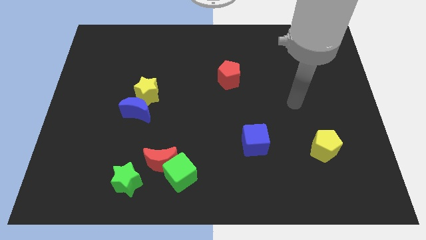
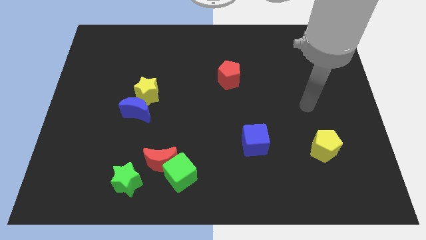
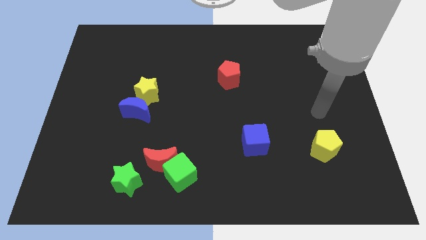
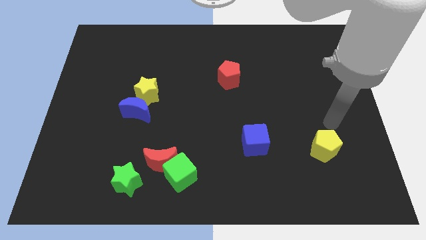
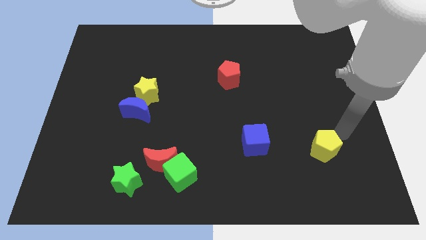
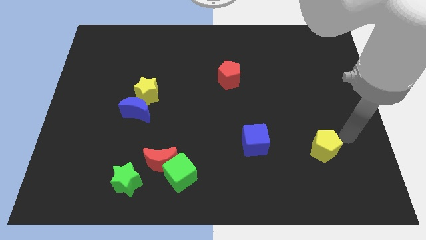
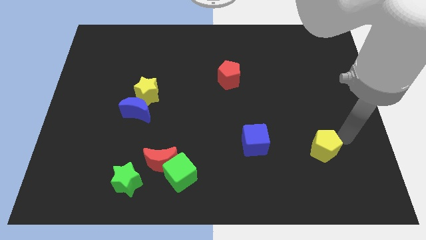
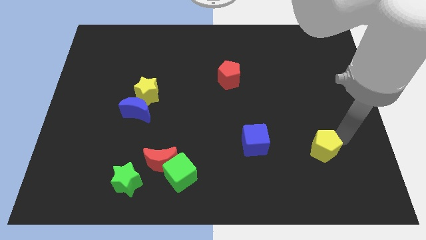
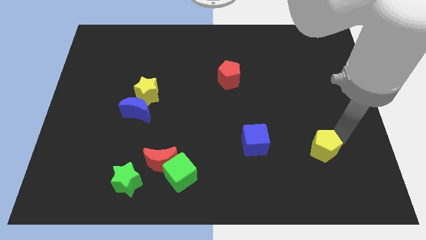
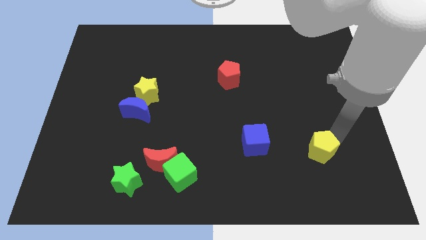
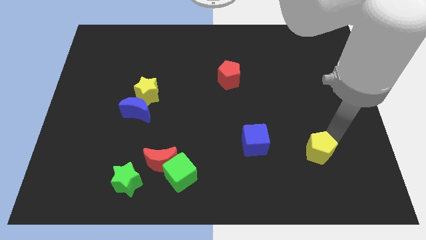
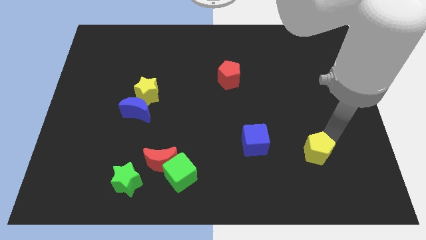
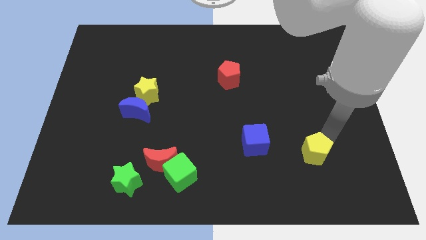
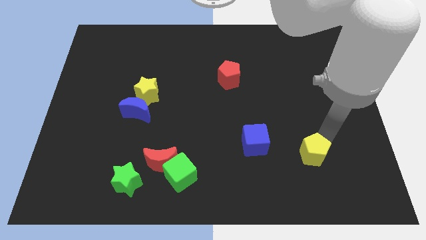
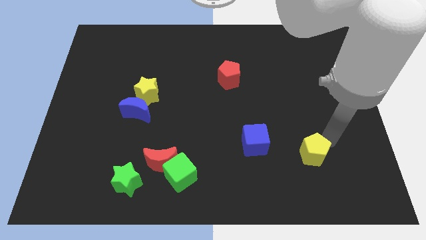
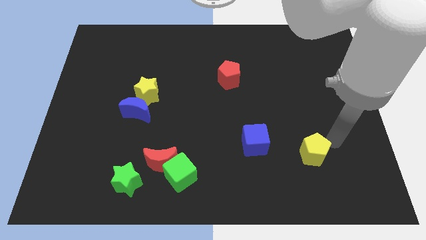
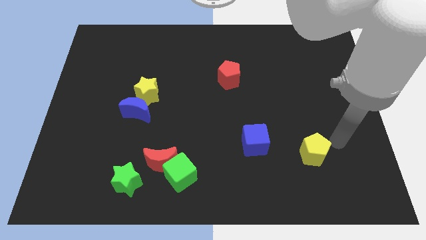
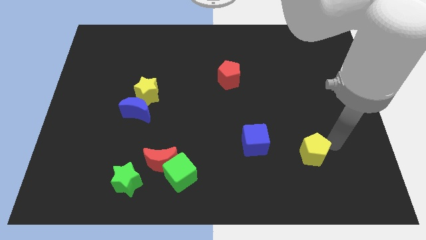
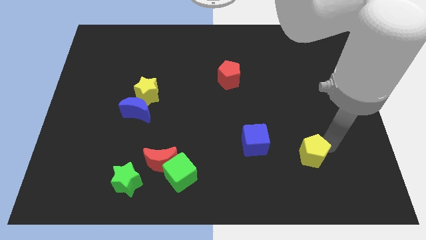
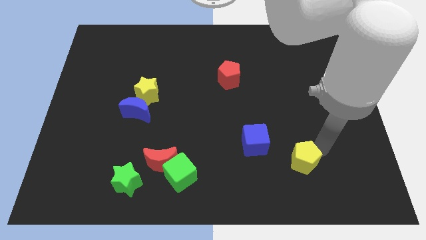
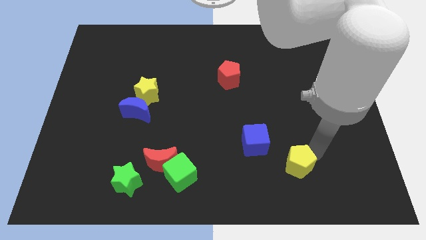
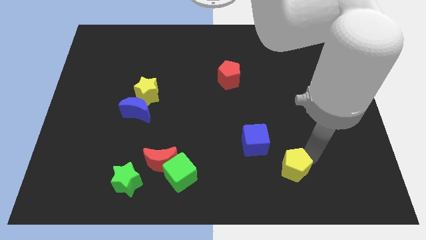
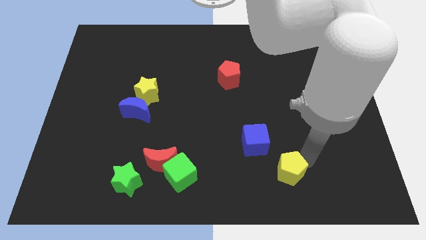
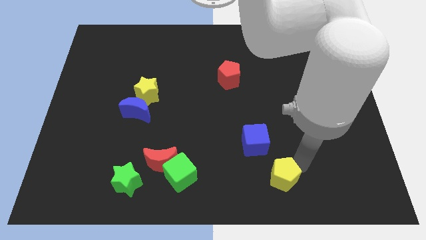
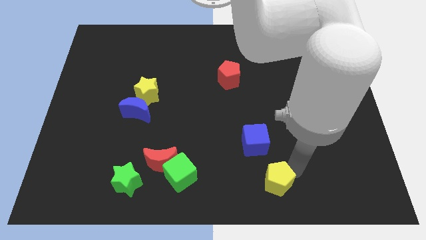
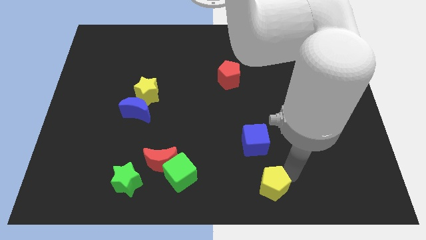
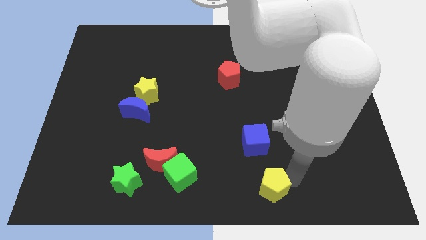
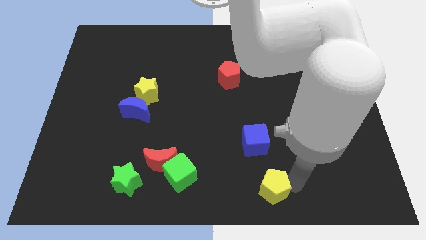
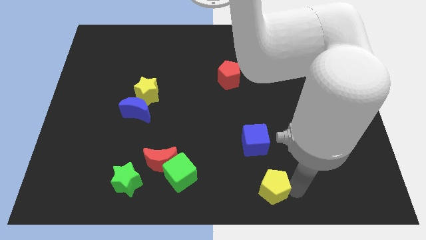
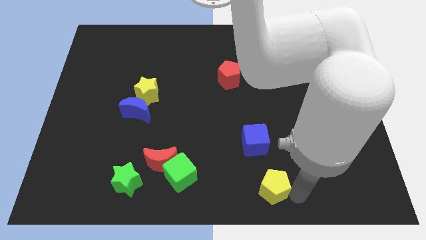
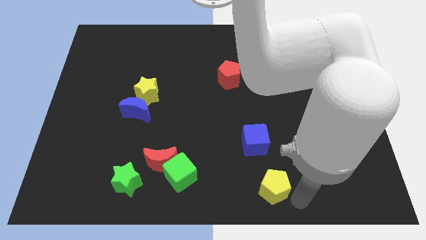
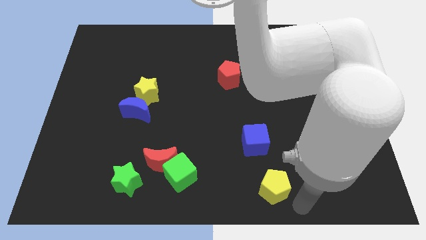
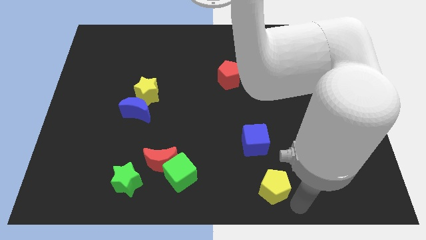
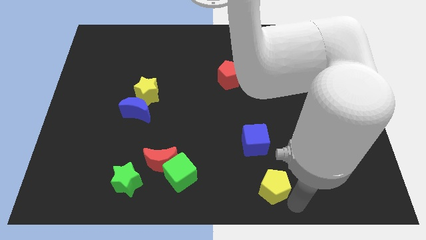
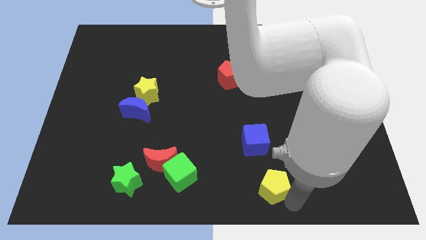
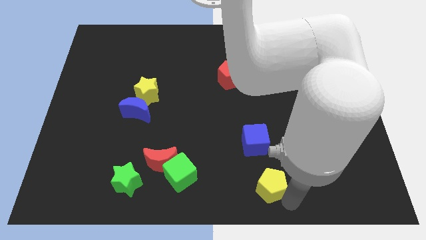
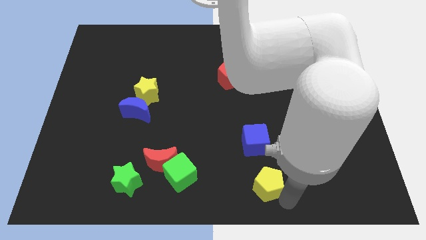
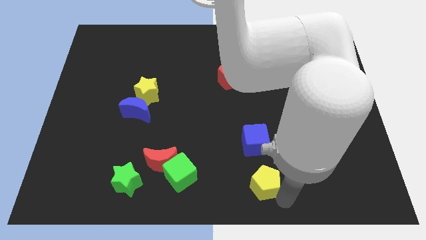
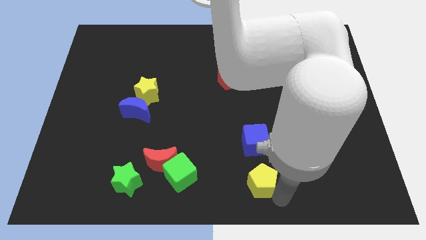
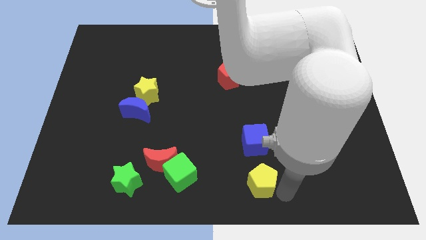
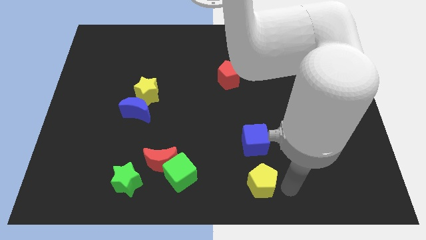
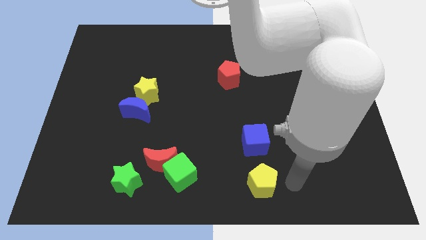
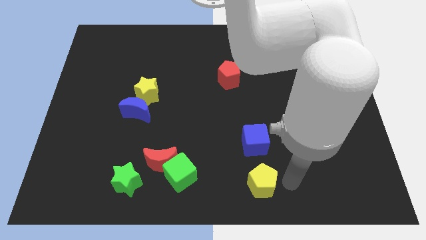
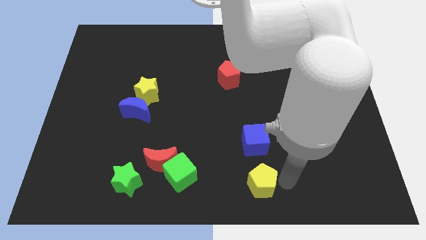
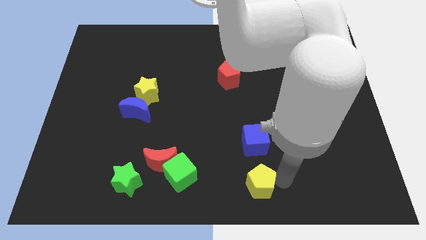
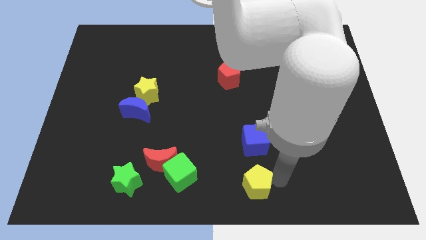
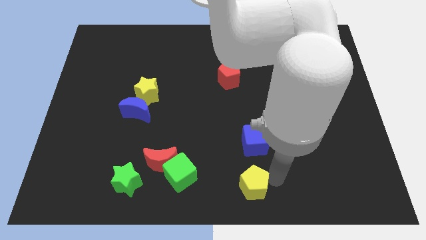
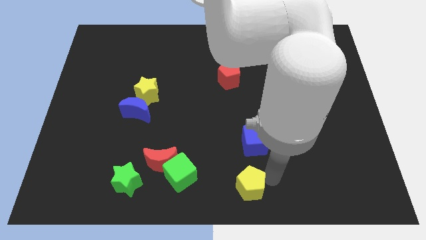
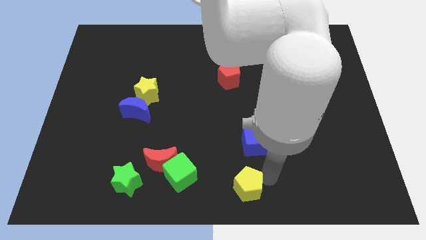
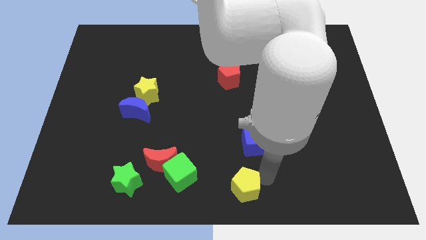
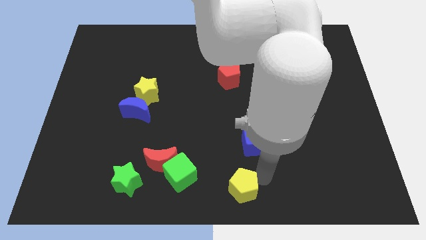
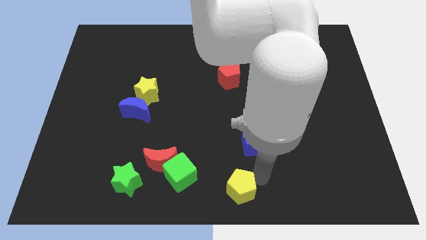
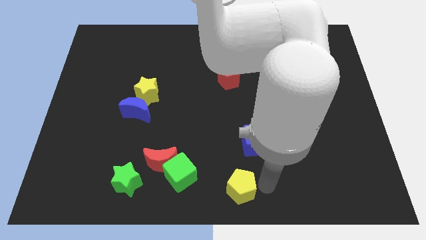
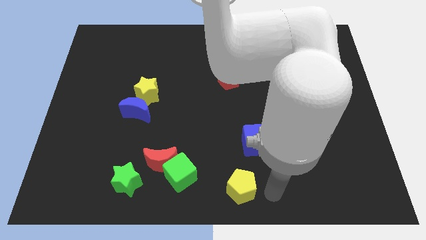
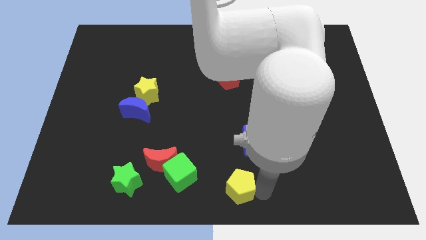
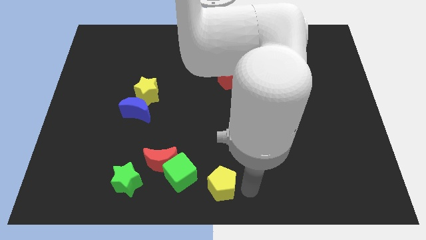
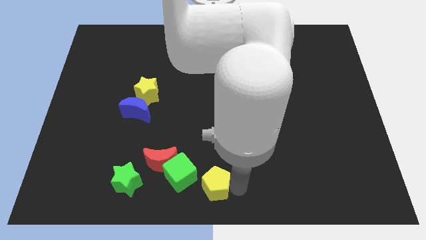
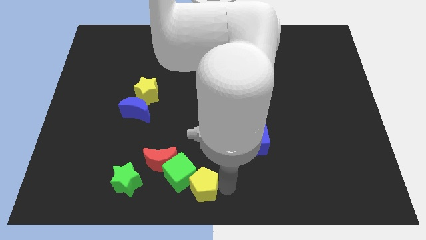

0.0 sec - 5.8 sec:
push the yellow pentagon close to the green cube

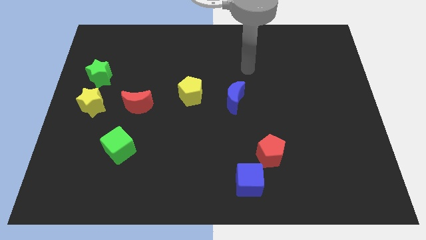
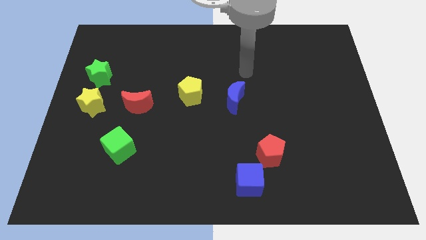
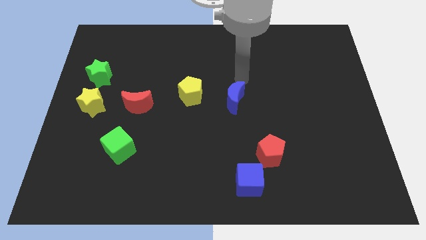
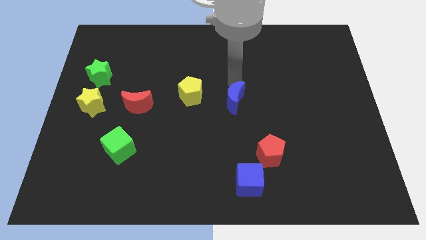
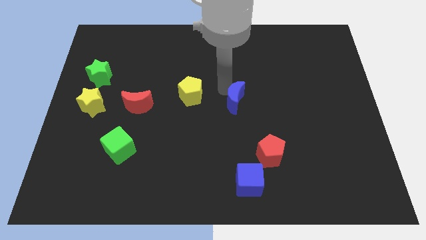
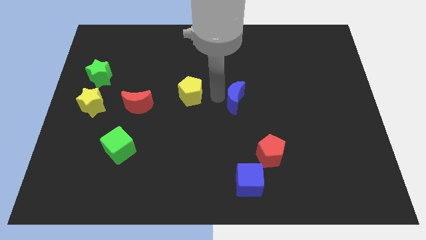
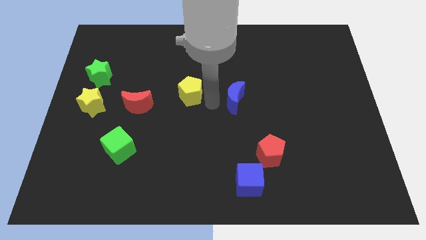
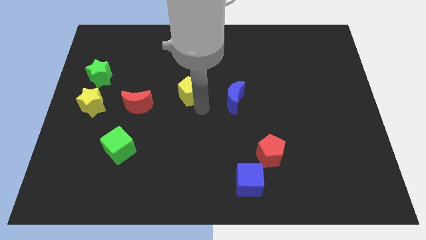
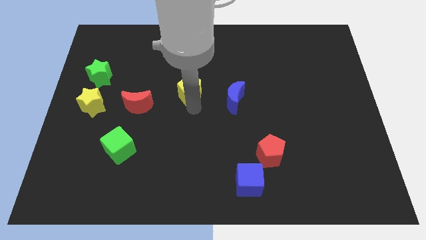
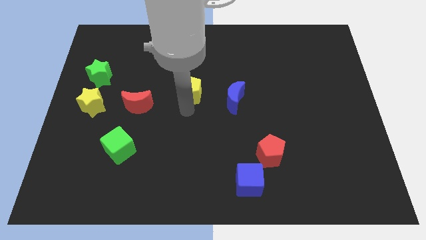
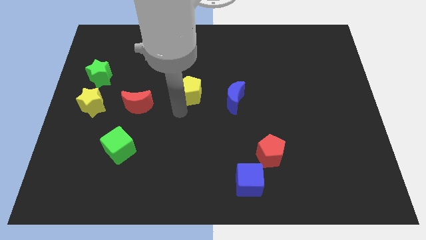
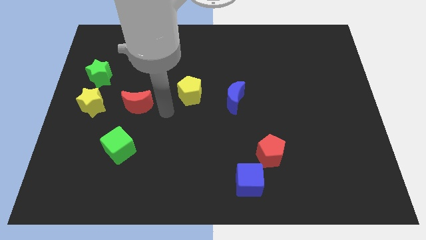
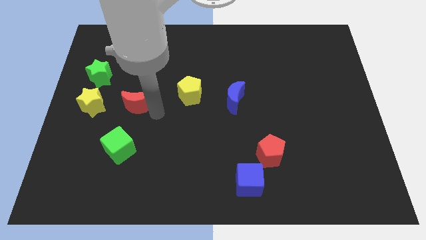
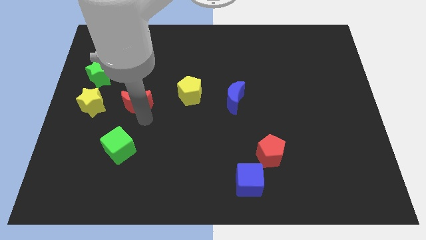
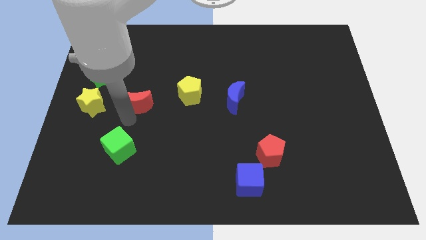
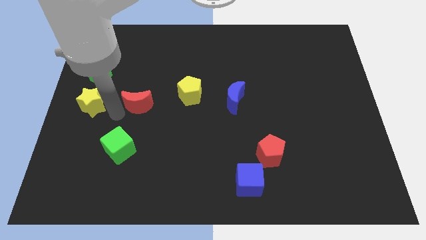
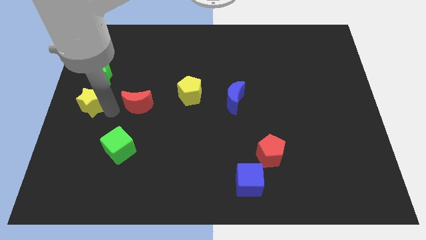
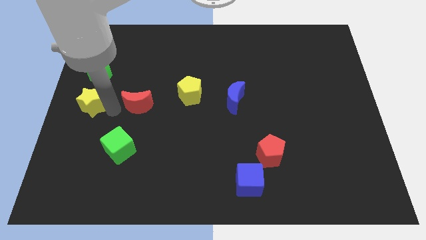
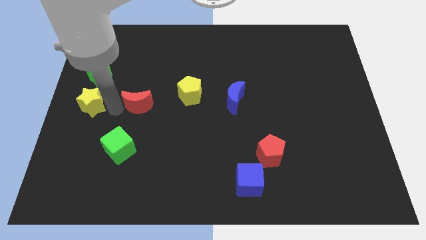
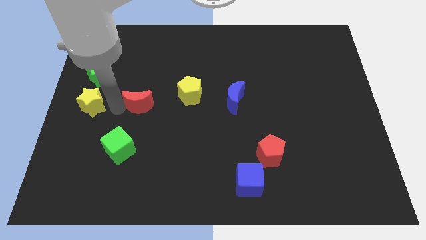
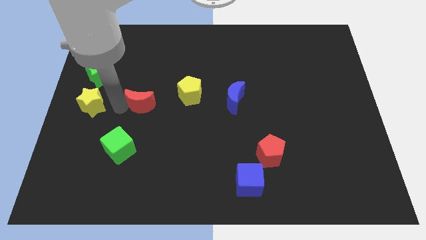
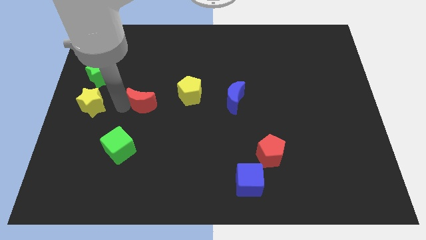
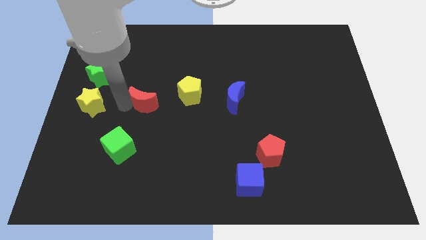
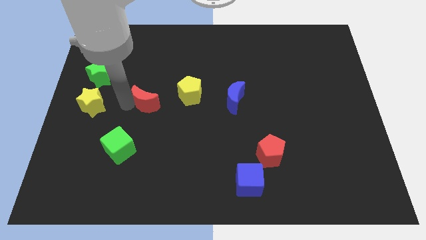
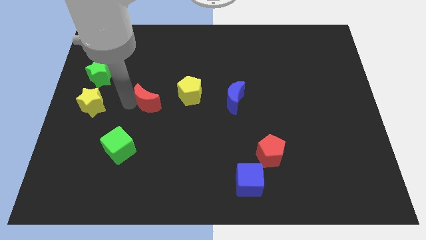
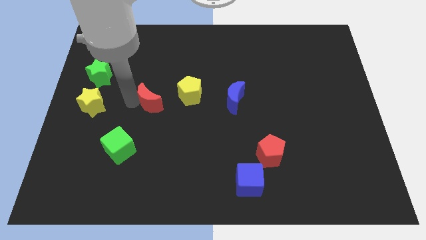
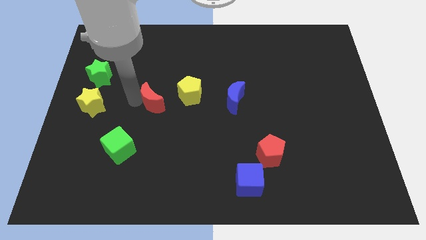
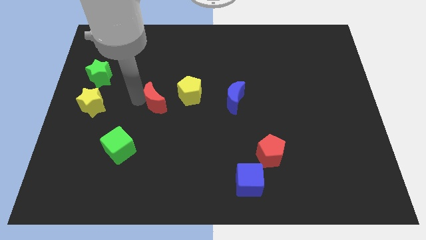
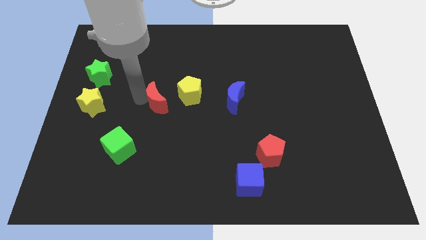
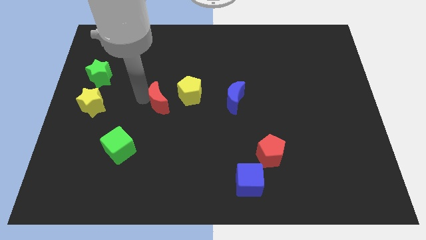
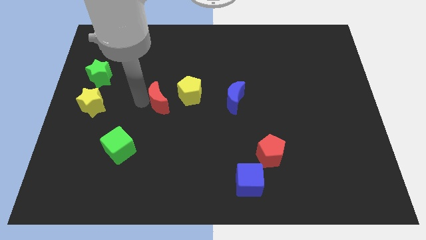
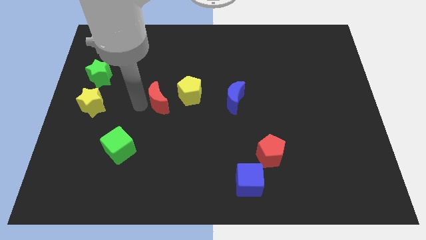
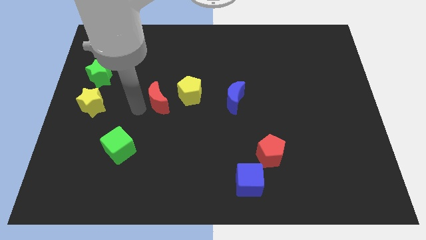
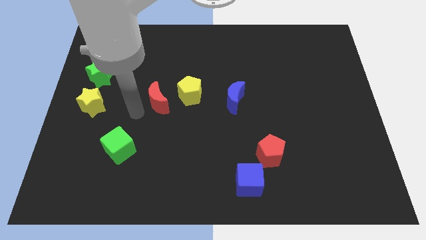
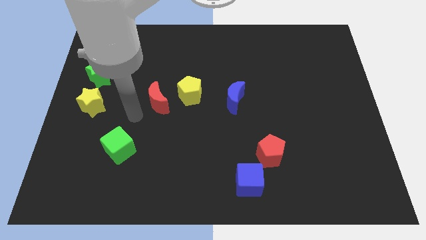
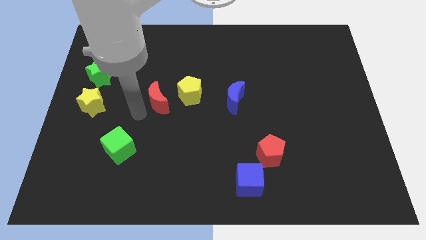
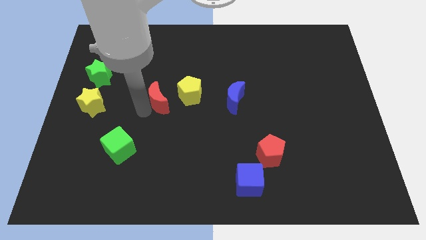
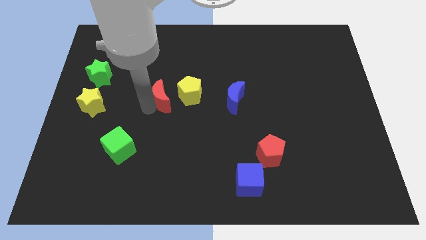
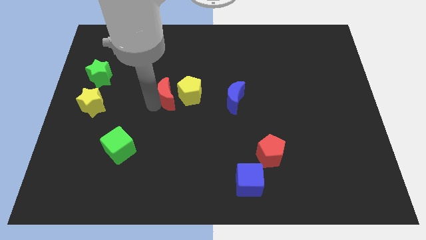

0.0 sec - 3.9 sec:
move the red moon next to the yellow pentagon
